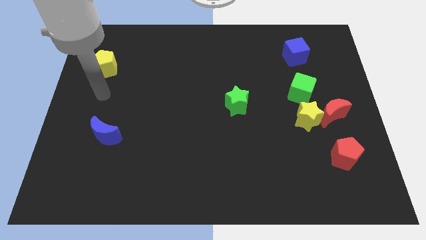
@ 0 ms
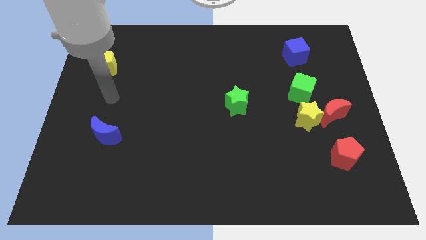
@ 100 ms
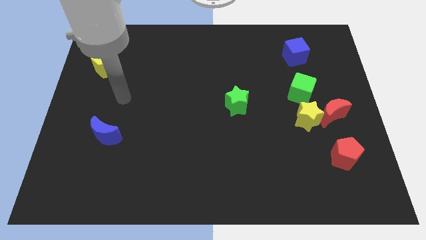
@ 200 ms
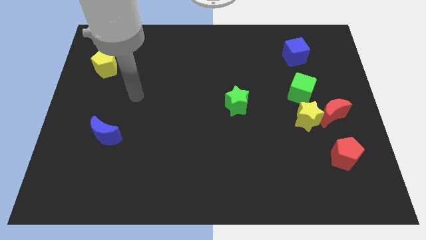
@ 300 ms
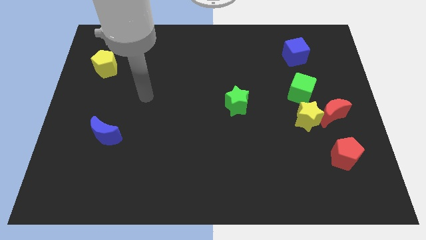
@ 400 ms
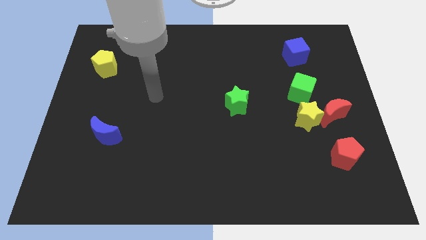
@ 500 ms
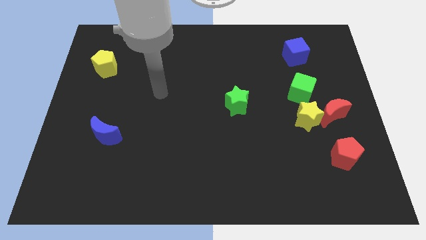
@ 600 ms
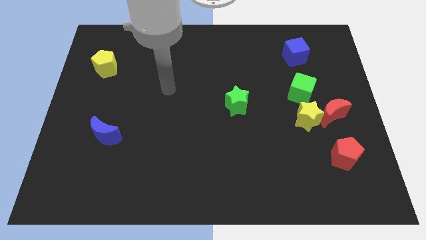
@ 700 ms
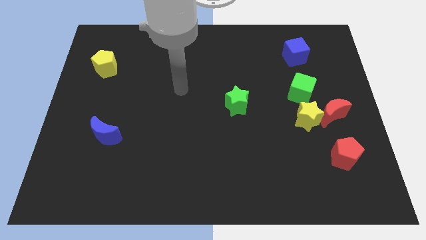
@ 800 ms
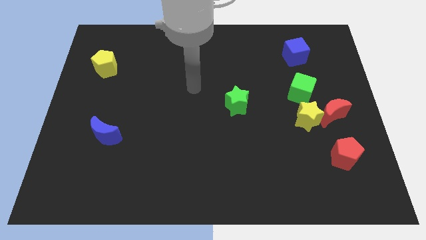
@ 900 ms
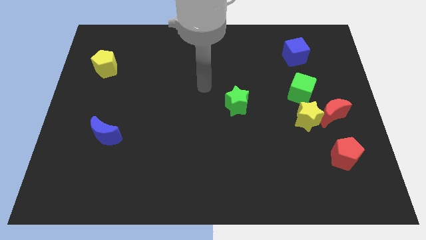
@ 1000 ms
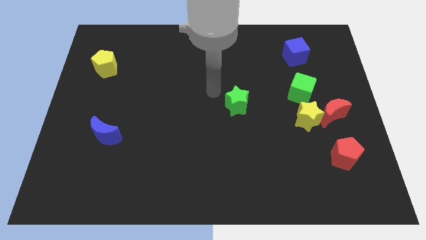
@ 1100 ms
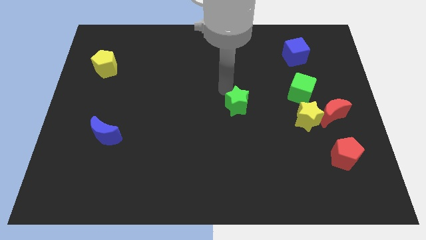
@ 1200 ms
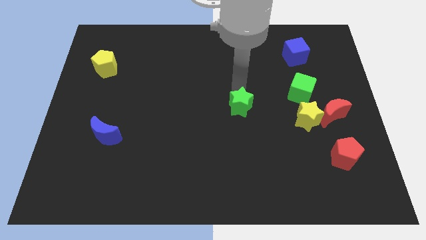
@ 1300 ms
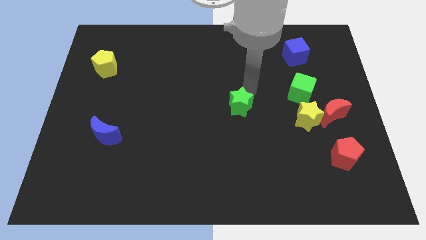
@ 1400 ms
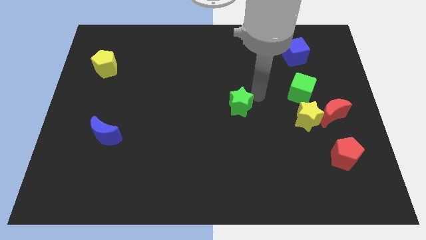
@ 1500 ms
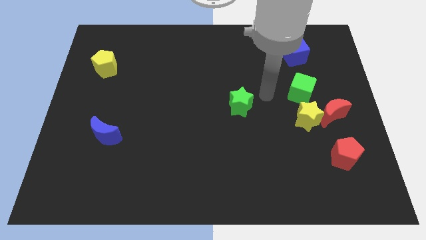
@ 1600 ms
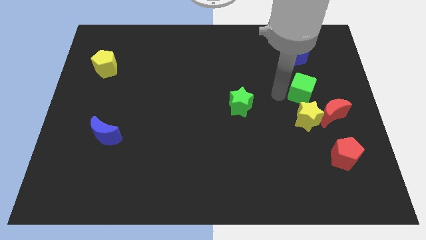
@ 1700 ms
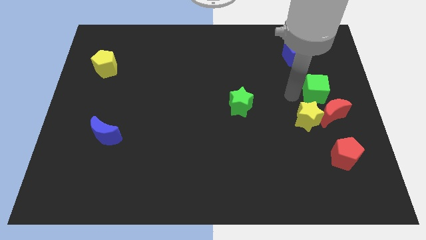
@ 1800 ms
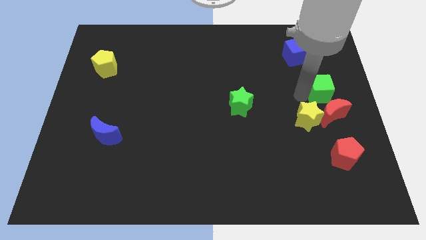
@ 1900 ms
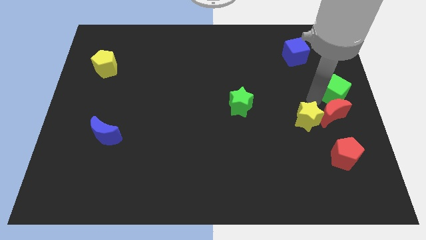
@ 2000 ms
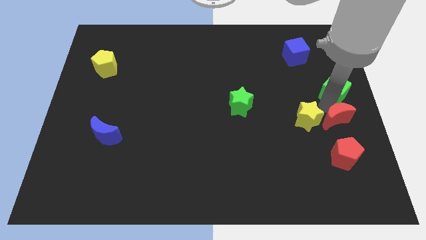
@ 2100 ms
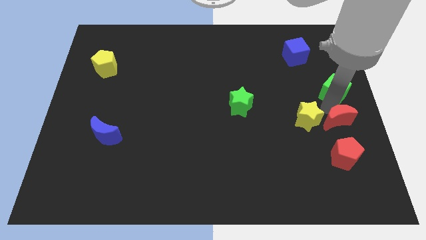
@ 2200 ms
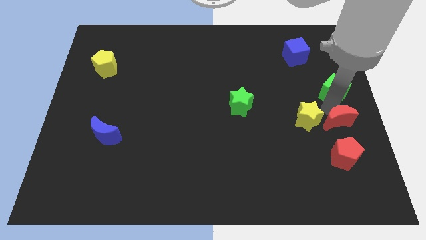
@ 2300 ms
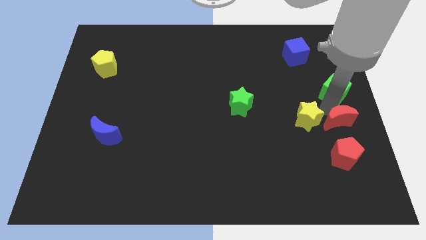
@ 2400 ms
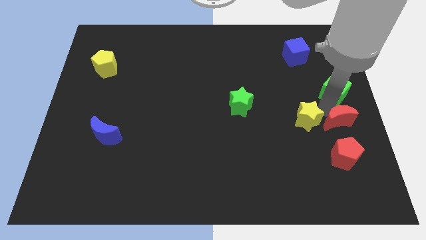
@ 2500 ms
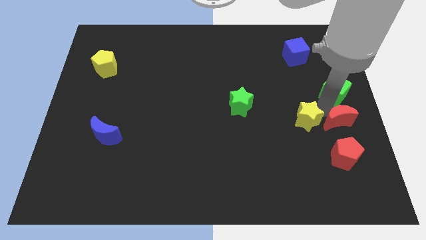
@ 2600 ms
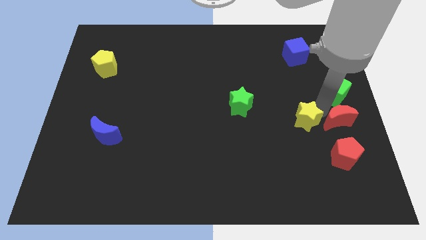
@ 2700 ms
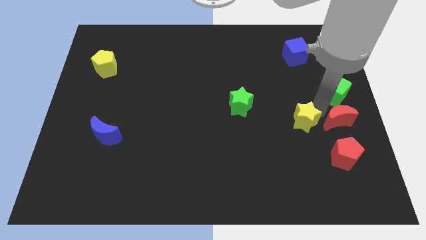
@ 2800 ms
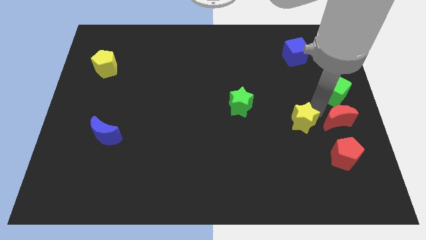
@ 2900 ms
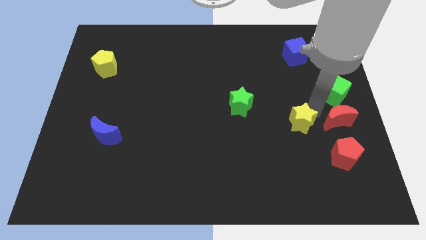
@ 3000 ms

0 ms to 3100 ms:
separate the yellow star from the red moon and green cube

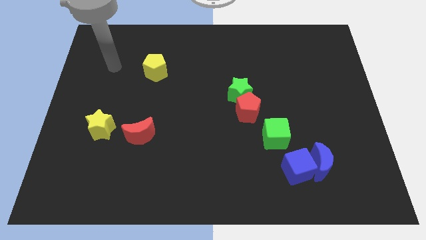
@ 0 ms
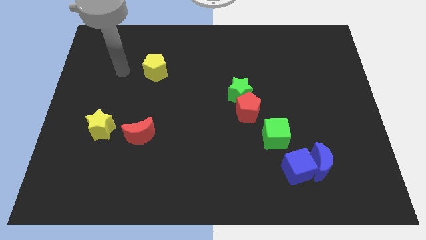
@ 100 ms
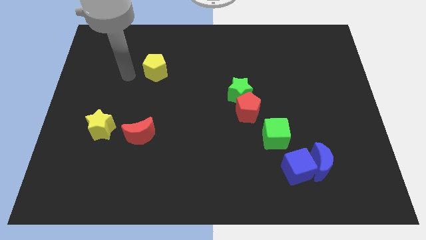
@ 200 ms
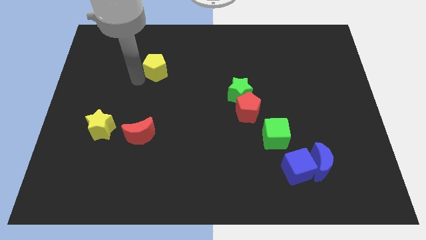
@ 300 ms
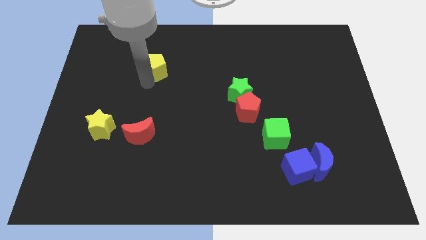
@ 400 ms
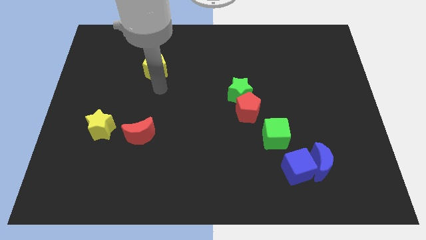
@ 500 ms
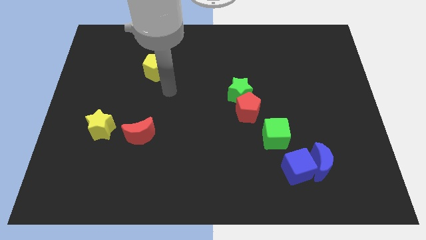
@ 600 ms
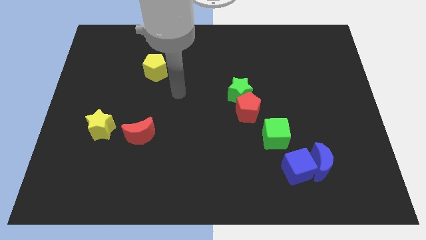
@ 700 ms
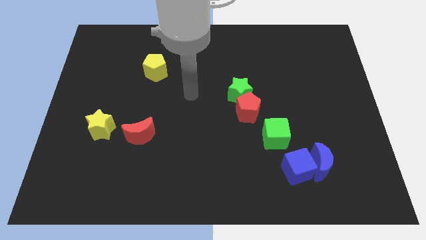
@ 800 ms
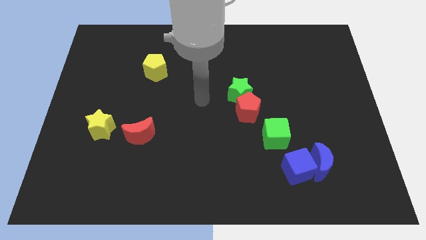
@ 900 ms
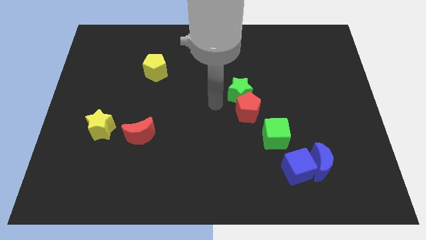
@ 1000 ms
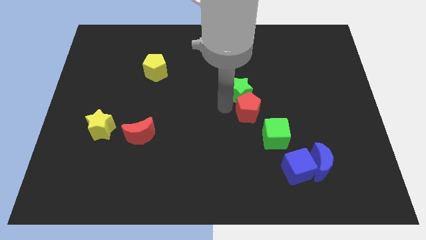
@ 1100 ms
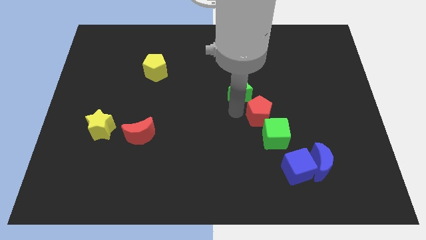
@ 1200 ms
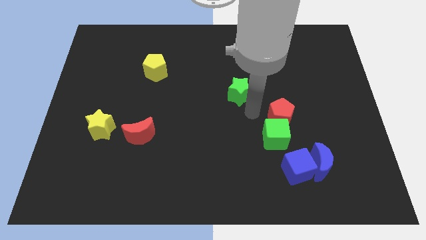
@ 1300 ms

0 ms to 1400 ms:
pull the green star apart from the red pentagon

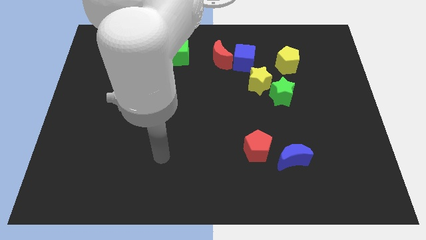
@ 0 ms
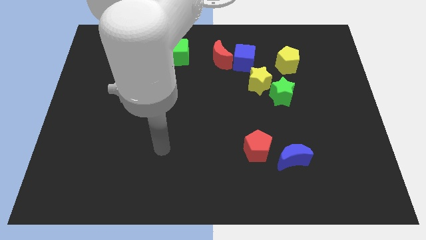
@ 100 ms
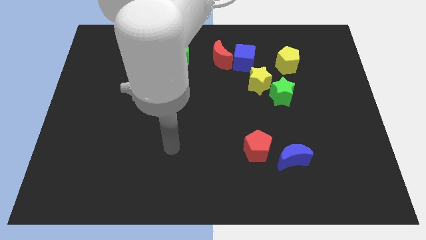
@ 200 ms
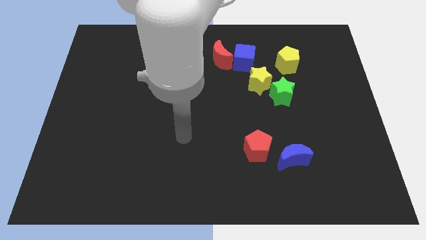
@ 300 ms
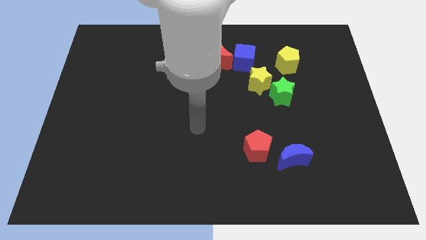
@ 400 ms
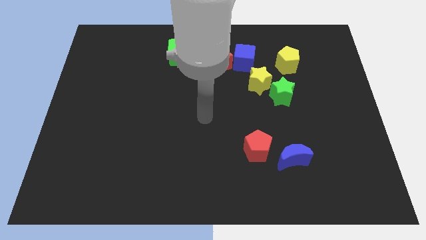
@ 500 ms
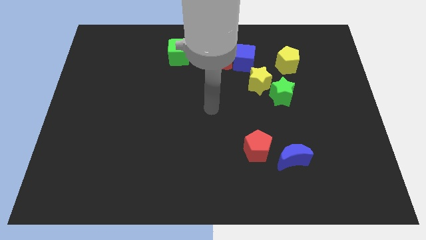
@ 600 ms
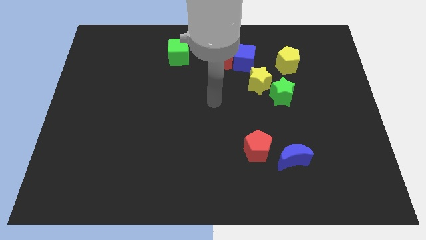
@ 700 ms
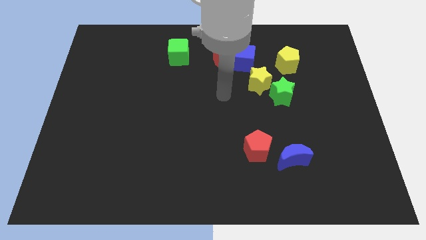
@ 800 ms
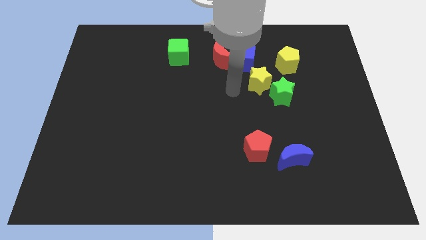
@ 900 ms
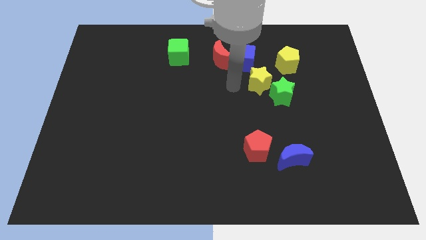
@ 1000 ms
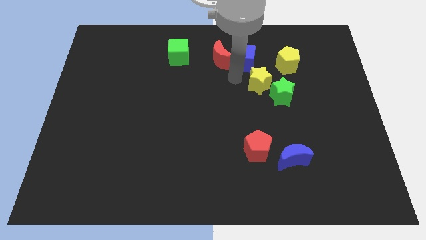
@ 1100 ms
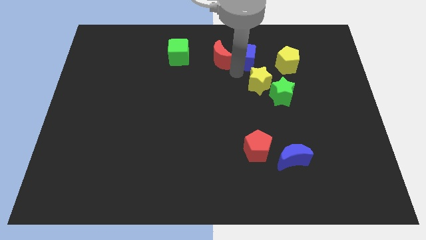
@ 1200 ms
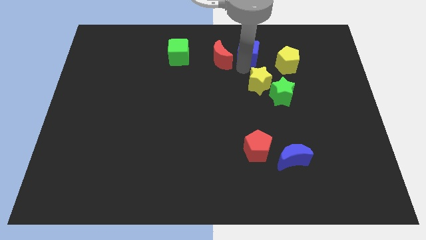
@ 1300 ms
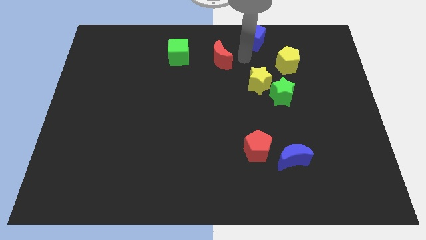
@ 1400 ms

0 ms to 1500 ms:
pull the red moon apart from the blue cube

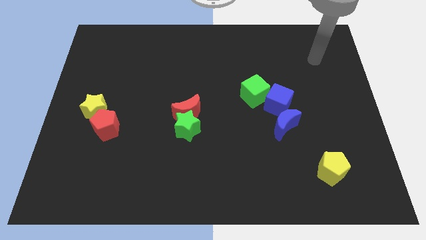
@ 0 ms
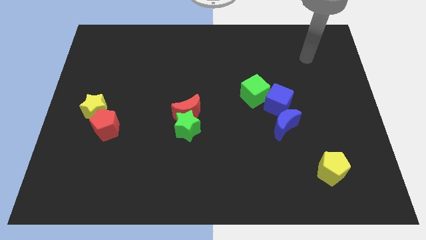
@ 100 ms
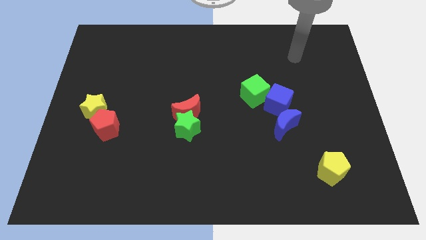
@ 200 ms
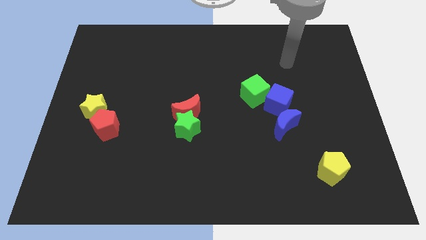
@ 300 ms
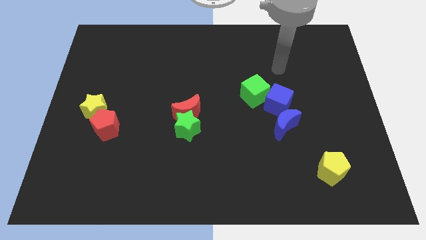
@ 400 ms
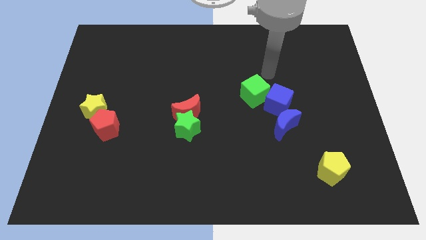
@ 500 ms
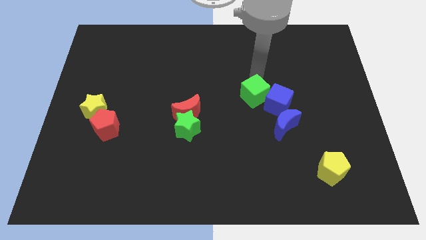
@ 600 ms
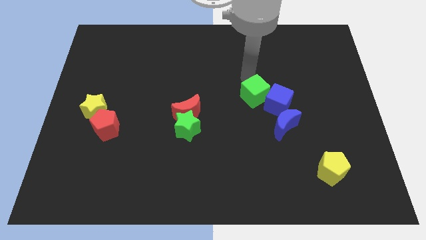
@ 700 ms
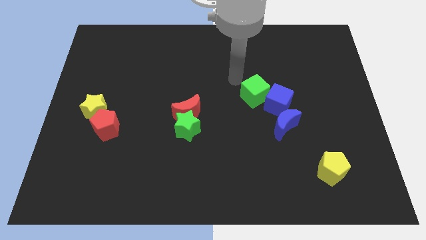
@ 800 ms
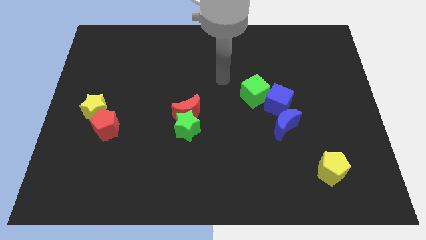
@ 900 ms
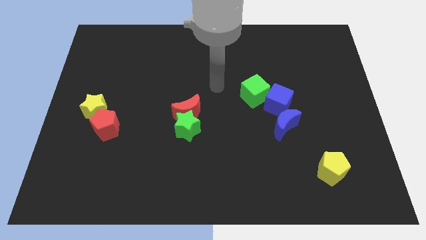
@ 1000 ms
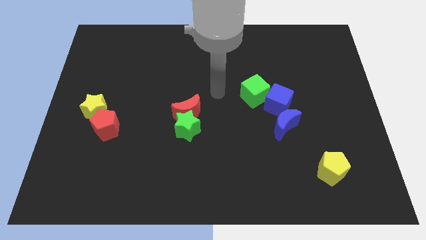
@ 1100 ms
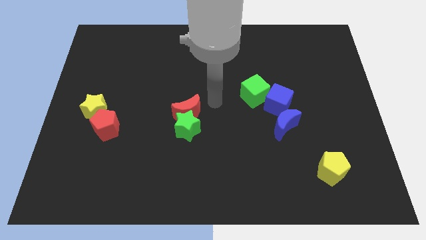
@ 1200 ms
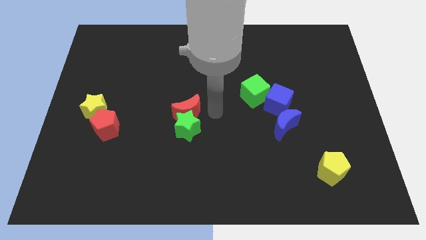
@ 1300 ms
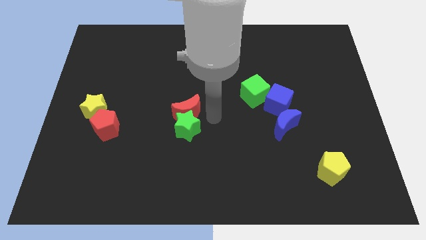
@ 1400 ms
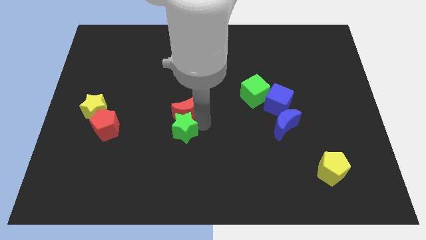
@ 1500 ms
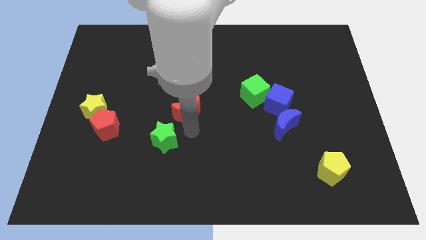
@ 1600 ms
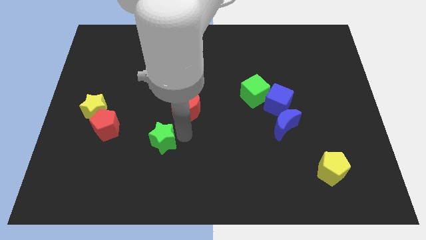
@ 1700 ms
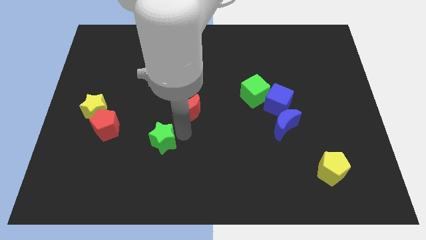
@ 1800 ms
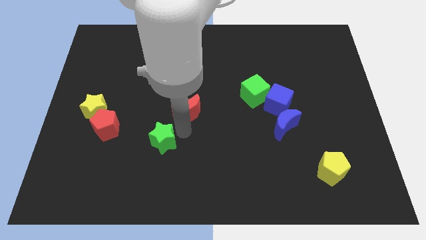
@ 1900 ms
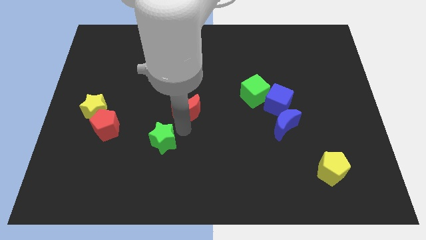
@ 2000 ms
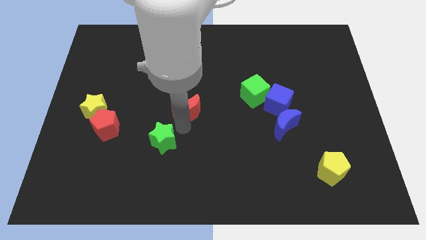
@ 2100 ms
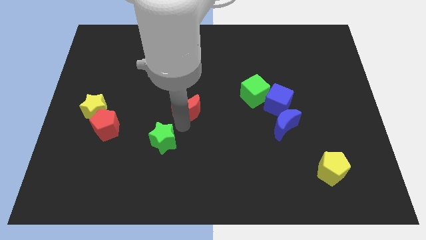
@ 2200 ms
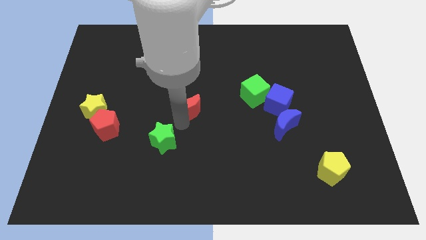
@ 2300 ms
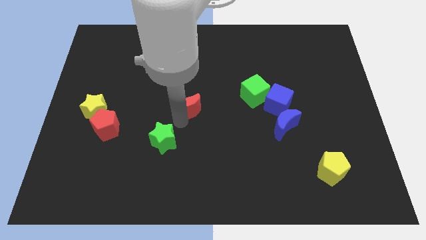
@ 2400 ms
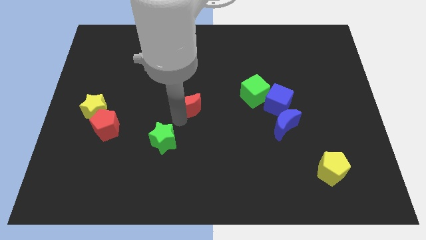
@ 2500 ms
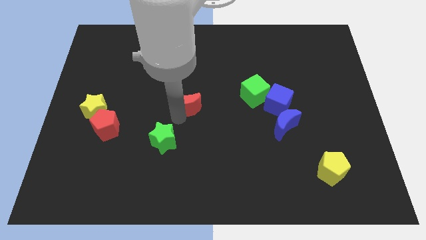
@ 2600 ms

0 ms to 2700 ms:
pull the red moon apart from the green star

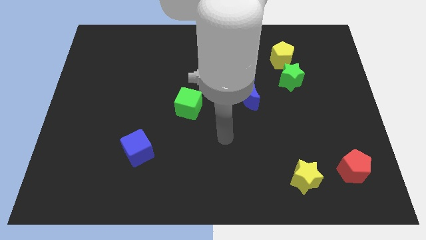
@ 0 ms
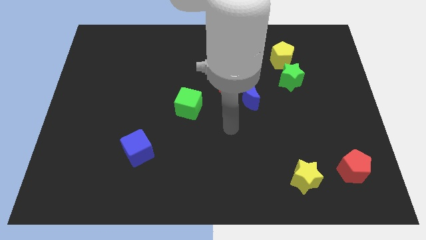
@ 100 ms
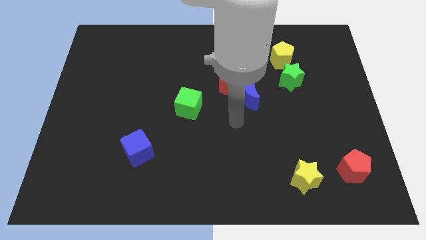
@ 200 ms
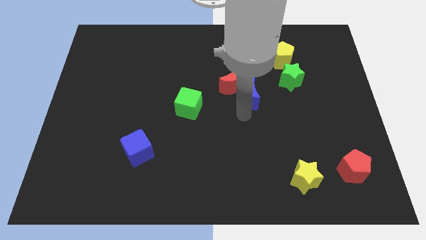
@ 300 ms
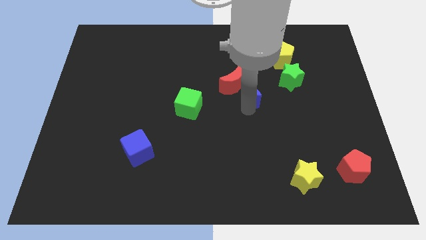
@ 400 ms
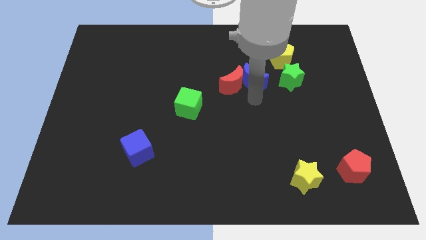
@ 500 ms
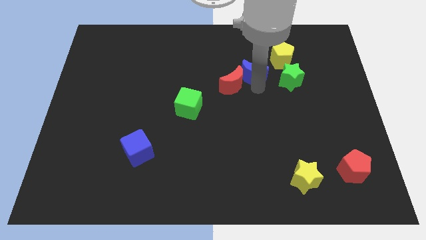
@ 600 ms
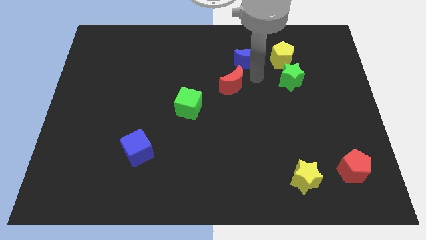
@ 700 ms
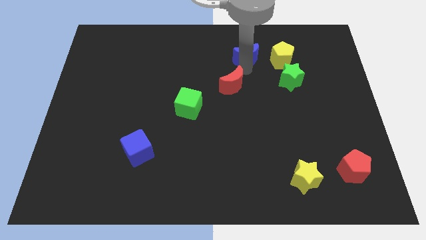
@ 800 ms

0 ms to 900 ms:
move the red moon away from the blue moon
